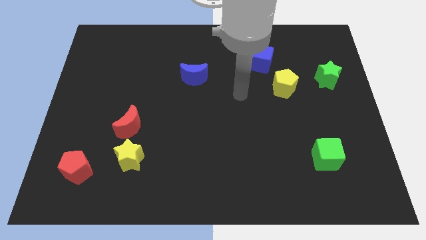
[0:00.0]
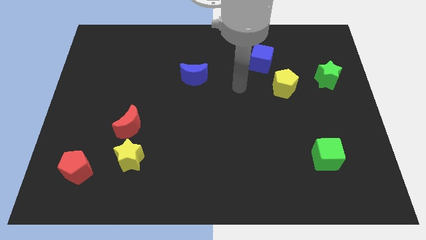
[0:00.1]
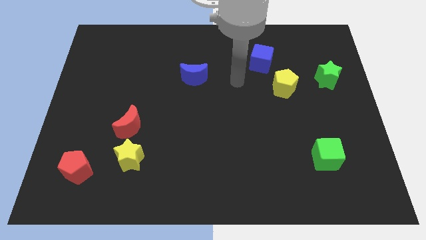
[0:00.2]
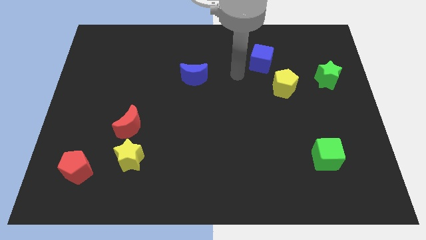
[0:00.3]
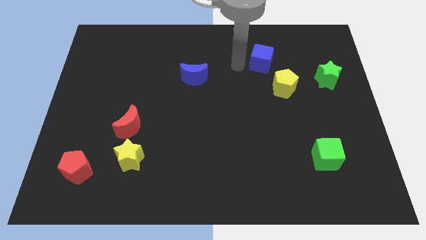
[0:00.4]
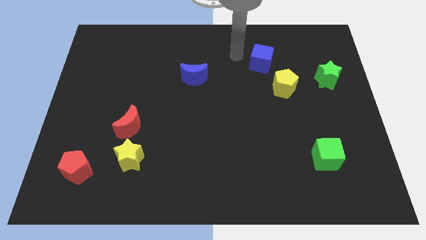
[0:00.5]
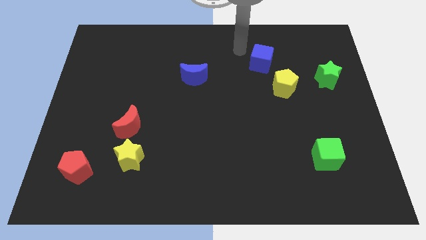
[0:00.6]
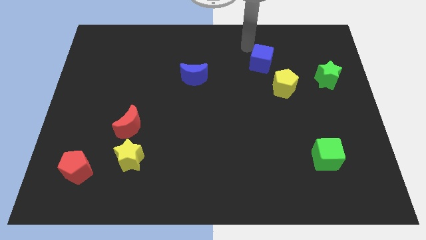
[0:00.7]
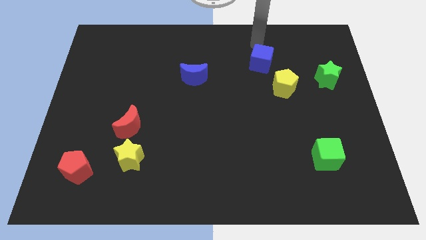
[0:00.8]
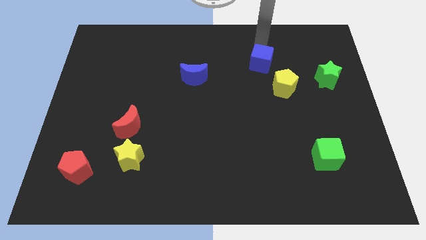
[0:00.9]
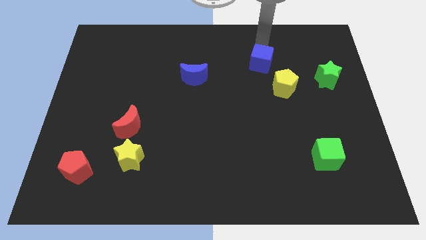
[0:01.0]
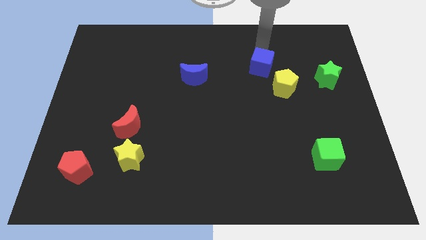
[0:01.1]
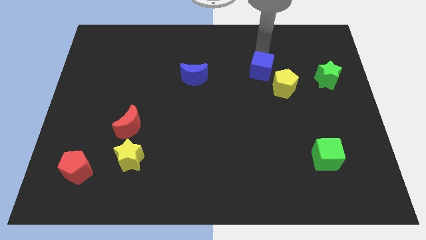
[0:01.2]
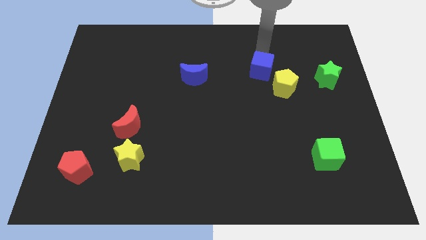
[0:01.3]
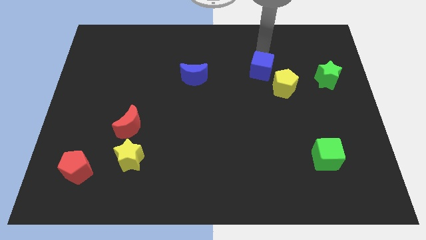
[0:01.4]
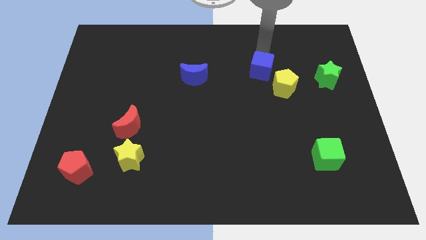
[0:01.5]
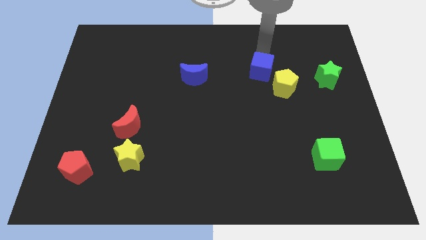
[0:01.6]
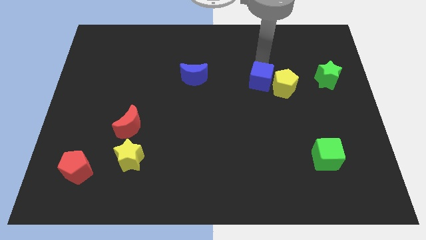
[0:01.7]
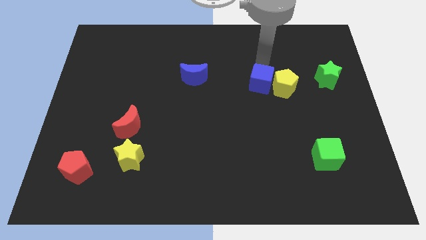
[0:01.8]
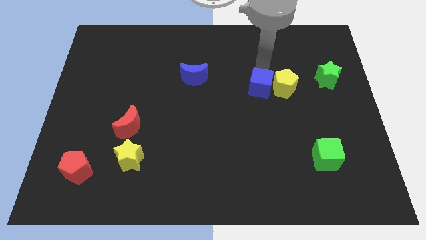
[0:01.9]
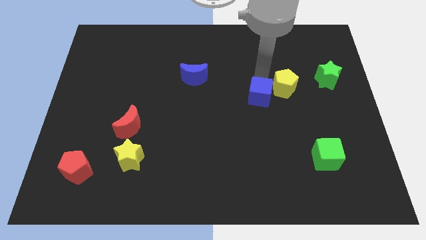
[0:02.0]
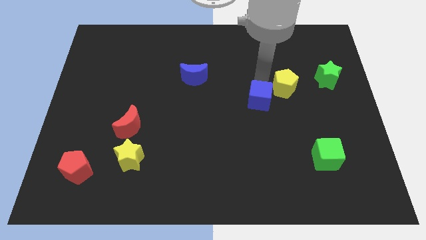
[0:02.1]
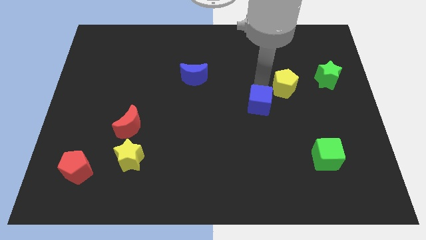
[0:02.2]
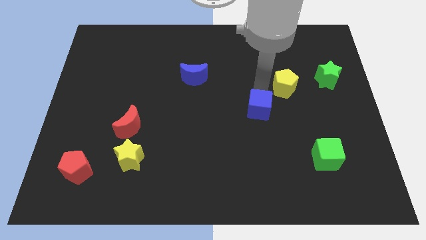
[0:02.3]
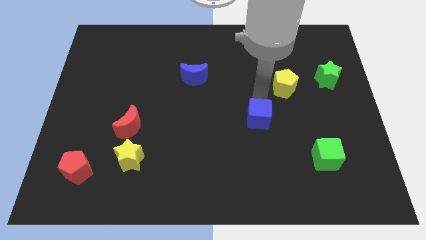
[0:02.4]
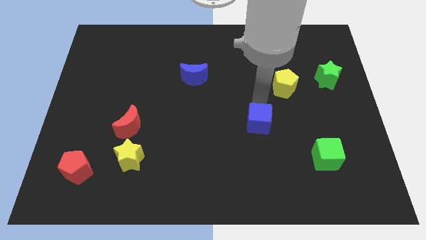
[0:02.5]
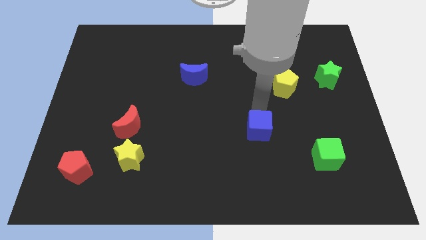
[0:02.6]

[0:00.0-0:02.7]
push the blue cube downwards

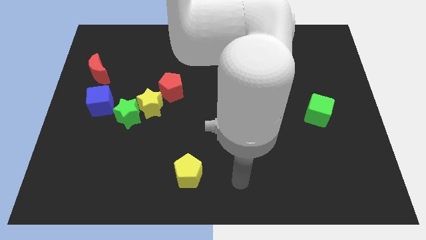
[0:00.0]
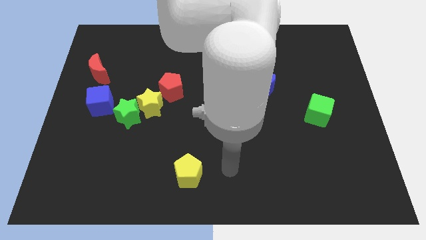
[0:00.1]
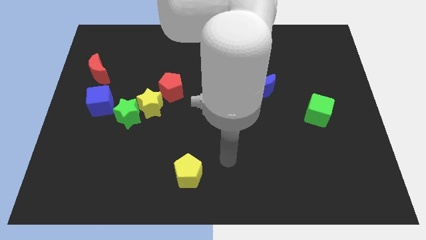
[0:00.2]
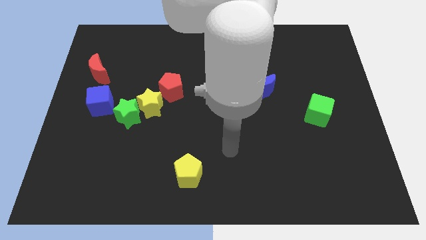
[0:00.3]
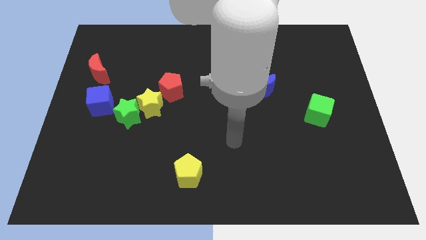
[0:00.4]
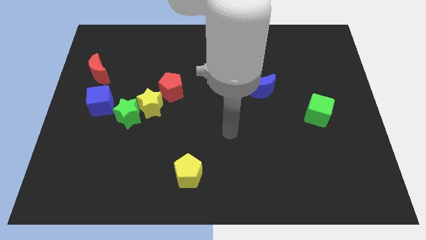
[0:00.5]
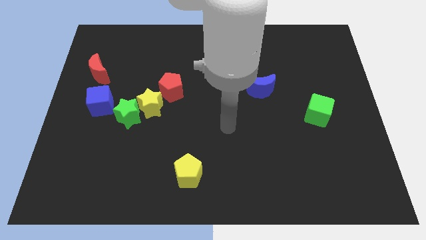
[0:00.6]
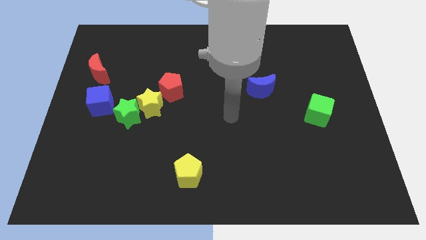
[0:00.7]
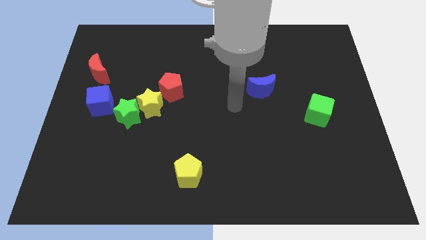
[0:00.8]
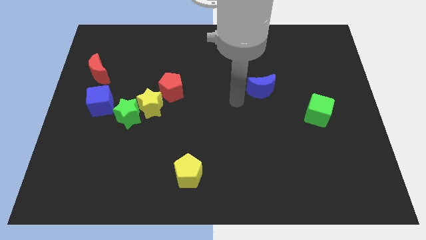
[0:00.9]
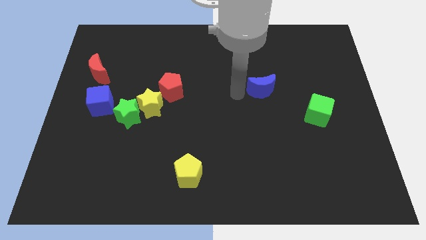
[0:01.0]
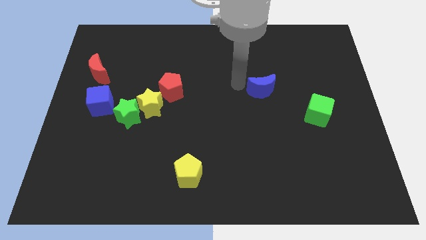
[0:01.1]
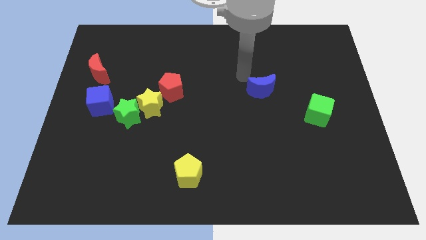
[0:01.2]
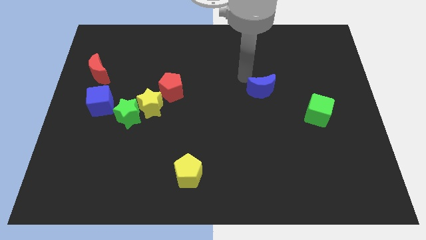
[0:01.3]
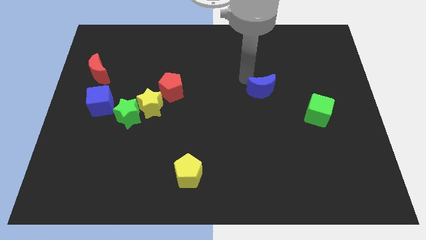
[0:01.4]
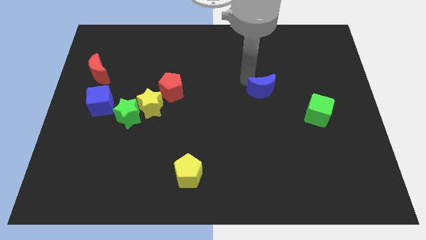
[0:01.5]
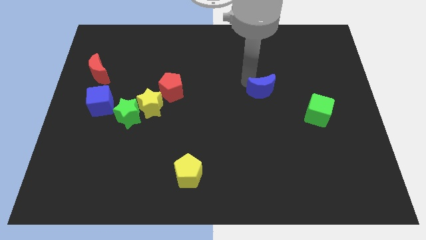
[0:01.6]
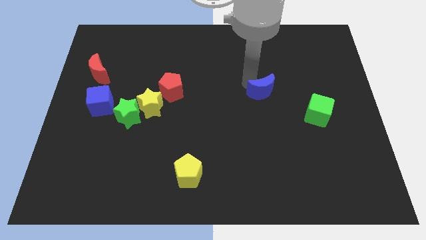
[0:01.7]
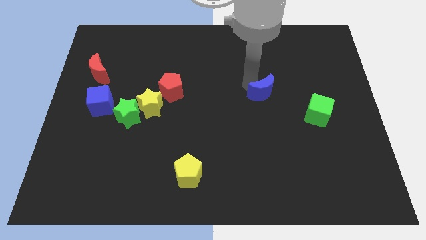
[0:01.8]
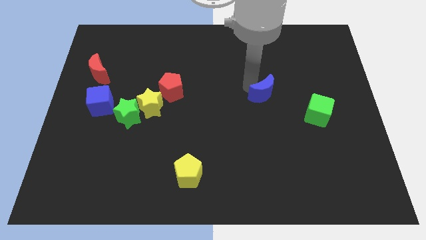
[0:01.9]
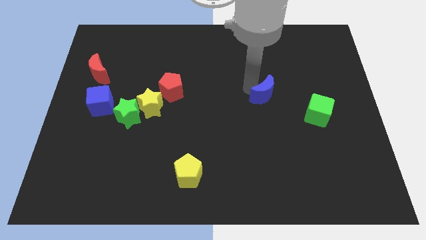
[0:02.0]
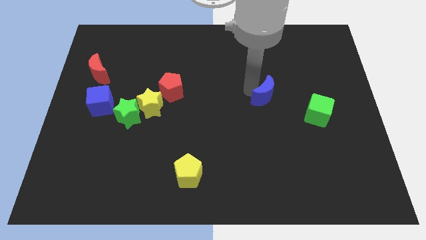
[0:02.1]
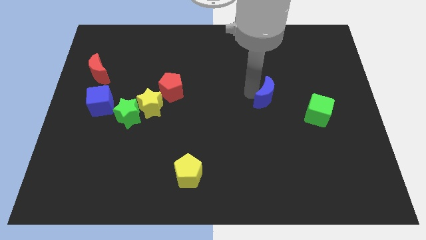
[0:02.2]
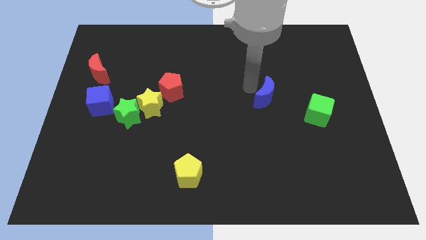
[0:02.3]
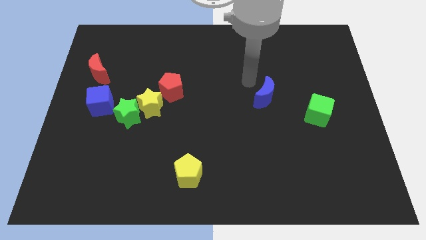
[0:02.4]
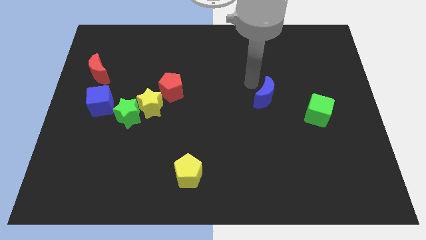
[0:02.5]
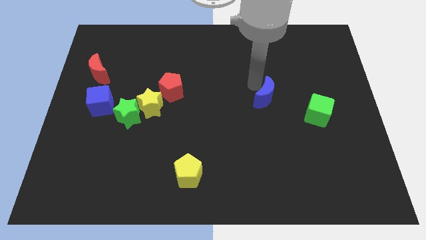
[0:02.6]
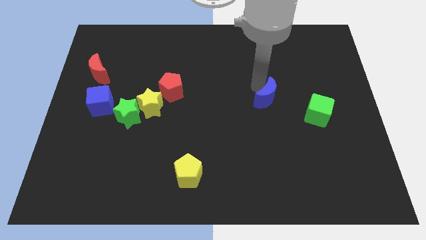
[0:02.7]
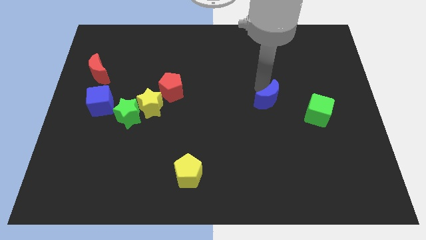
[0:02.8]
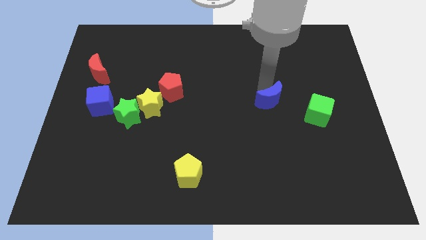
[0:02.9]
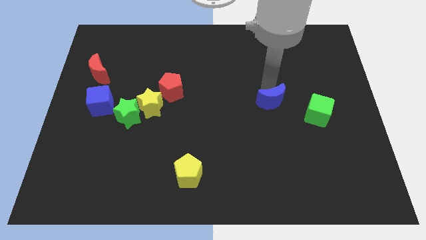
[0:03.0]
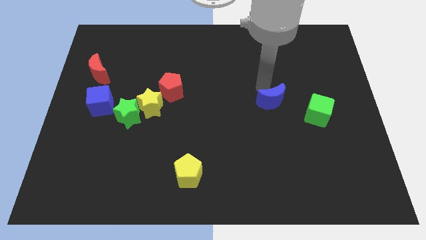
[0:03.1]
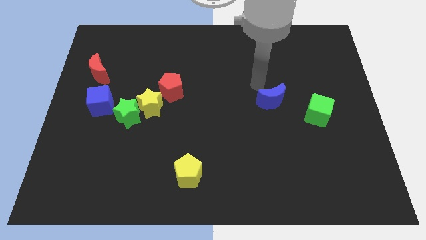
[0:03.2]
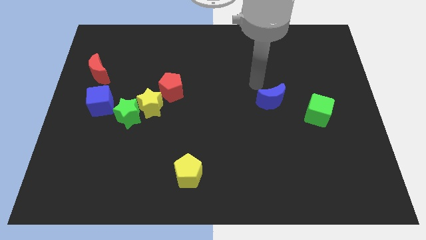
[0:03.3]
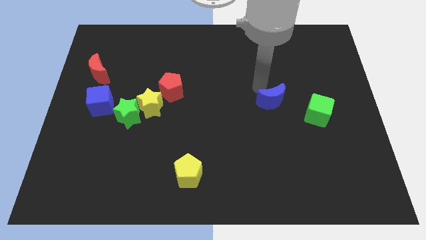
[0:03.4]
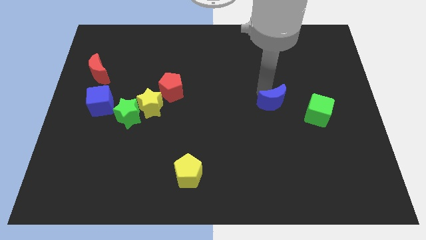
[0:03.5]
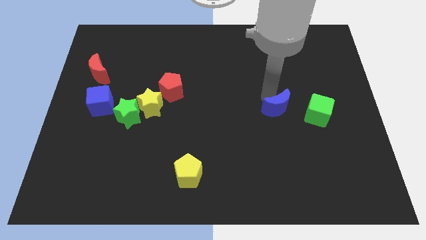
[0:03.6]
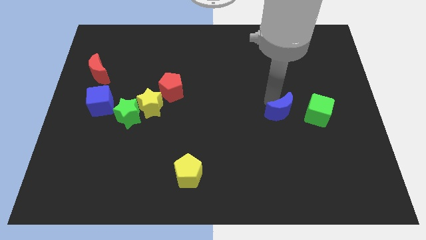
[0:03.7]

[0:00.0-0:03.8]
push the blue moon downwards and to the right a little

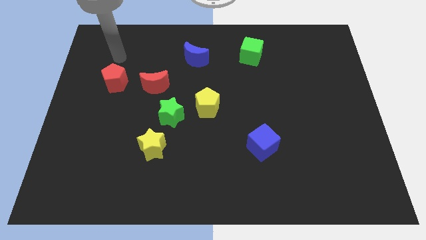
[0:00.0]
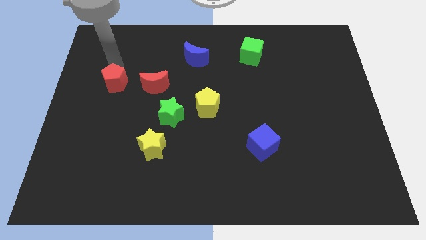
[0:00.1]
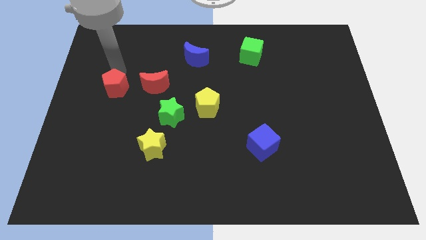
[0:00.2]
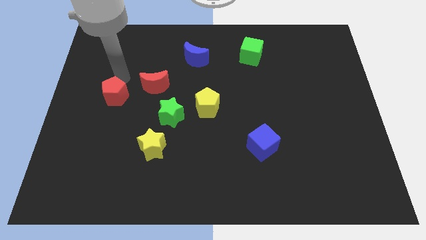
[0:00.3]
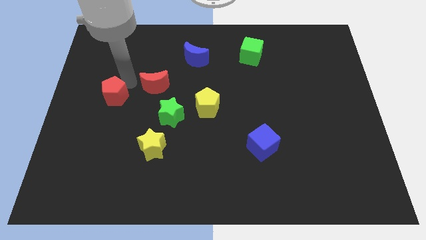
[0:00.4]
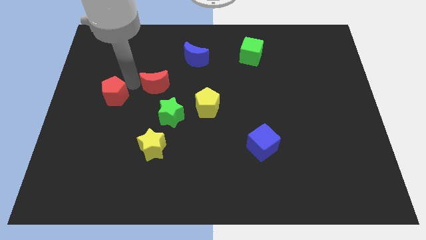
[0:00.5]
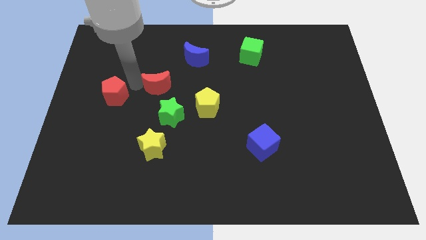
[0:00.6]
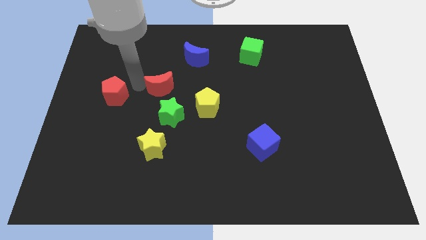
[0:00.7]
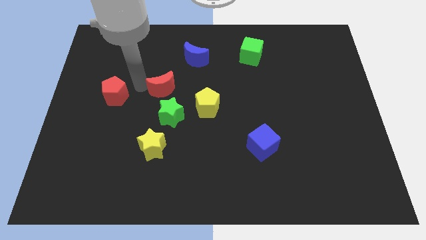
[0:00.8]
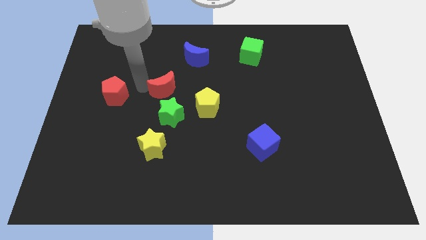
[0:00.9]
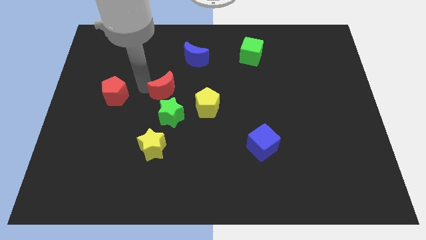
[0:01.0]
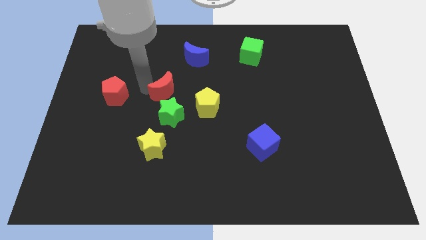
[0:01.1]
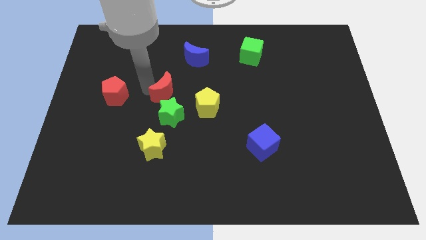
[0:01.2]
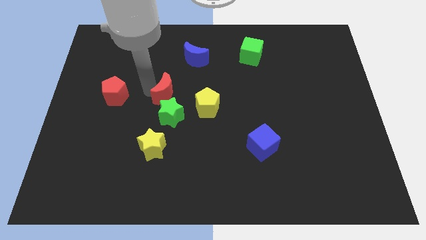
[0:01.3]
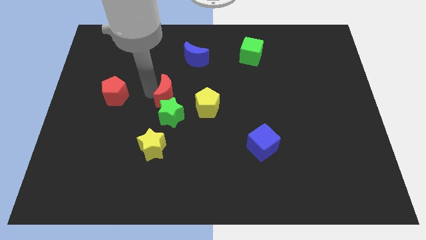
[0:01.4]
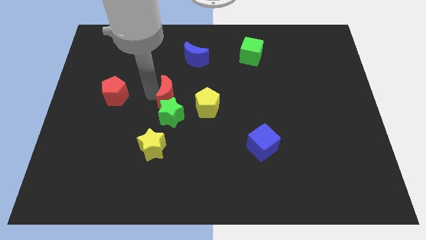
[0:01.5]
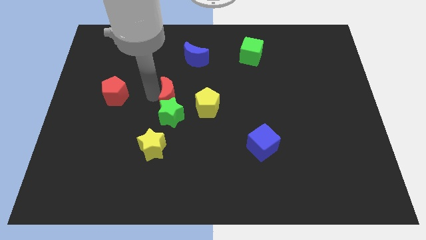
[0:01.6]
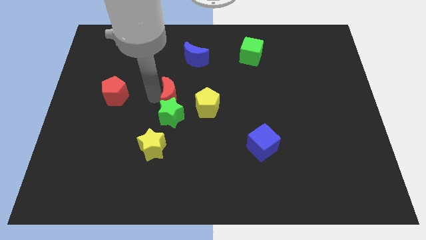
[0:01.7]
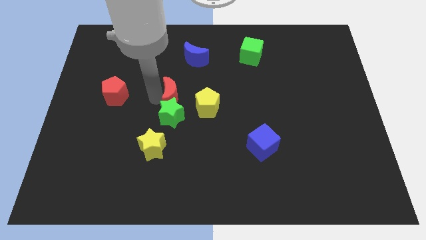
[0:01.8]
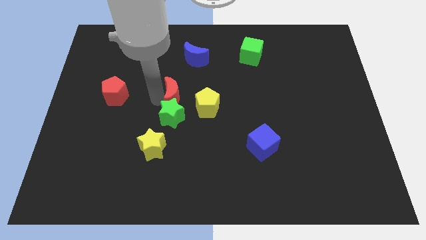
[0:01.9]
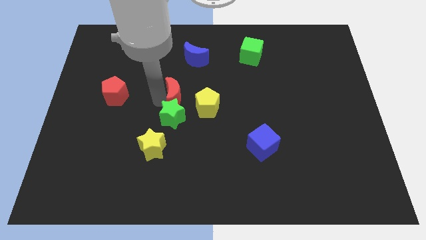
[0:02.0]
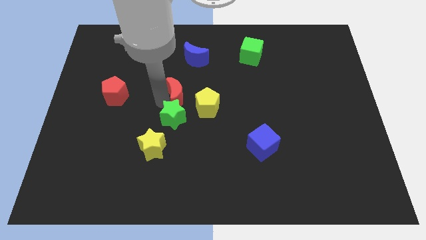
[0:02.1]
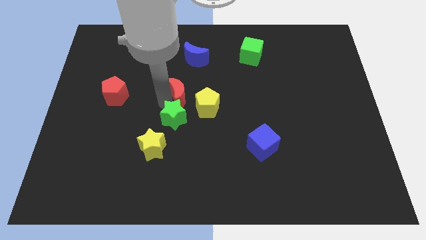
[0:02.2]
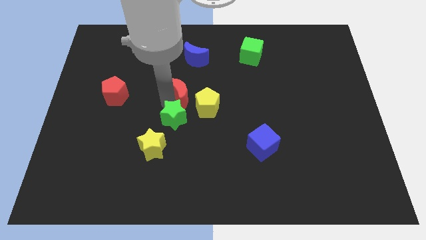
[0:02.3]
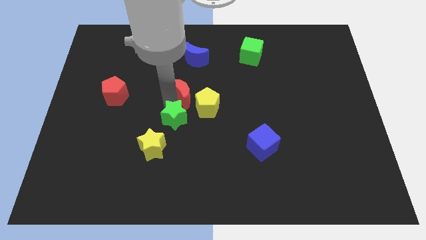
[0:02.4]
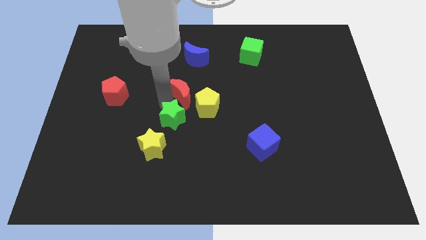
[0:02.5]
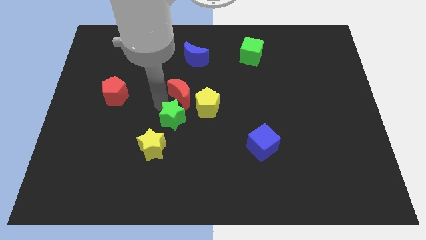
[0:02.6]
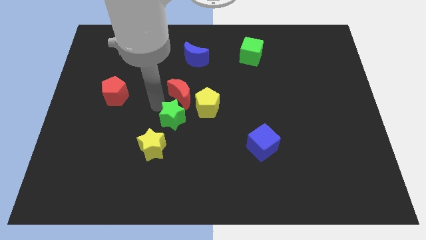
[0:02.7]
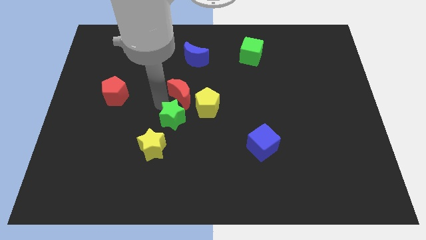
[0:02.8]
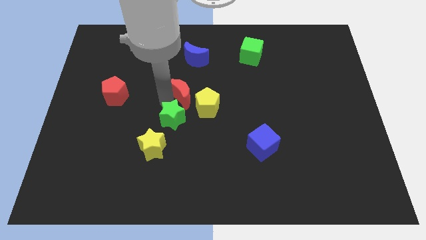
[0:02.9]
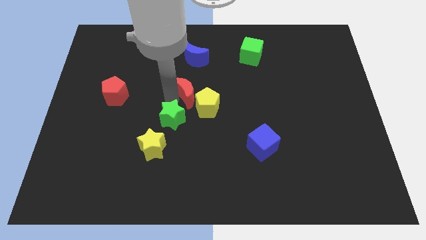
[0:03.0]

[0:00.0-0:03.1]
move the red moon a little to the right
